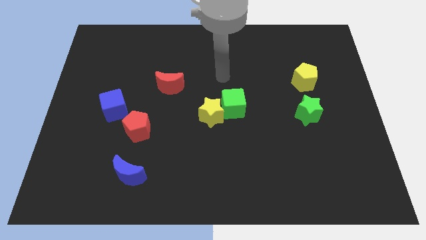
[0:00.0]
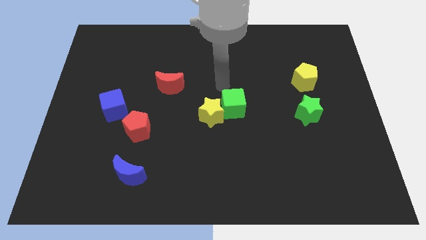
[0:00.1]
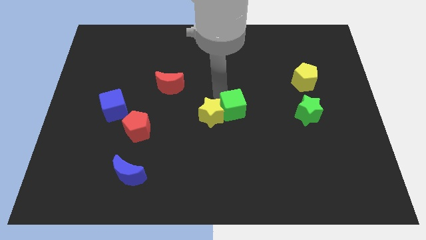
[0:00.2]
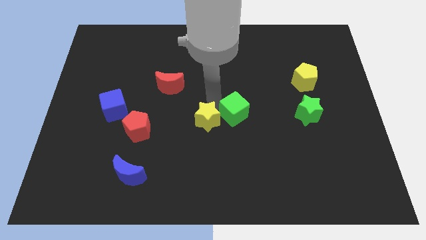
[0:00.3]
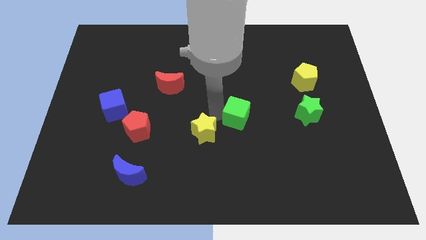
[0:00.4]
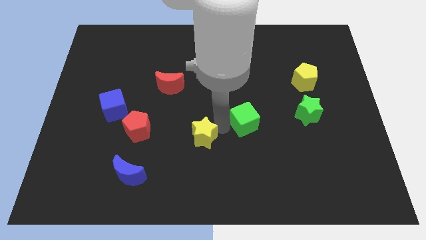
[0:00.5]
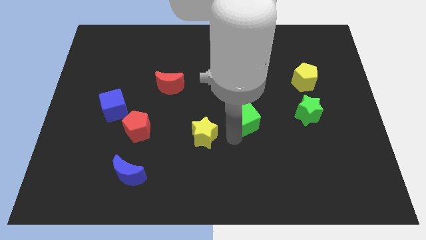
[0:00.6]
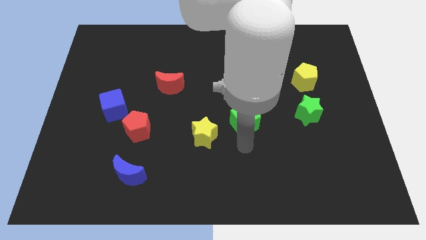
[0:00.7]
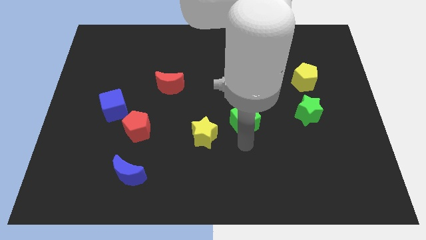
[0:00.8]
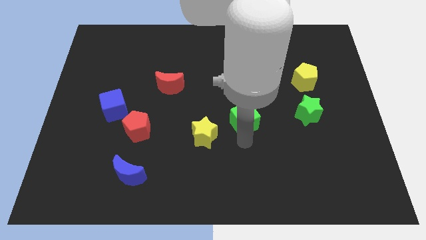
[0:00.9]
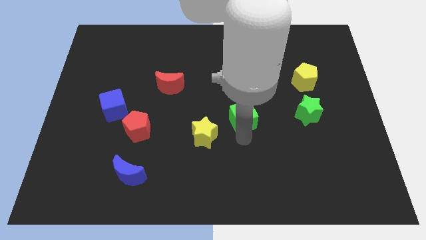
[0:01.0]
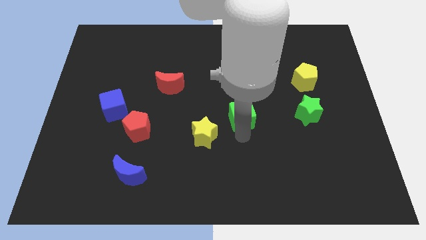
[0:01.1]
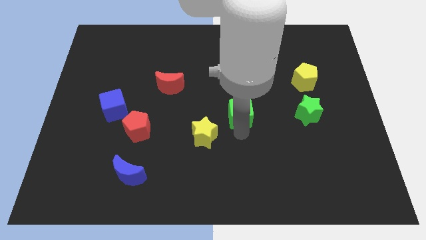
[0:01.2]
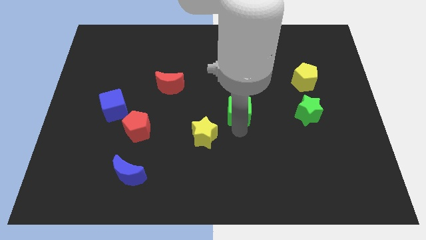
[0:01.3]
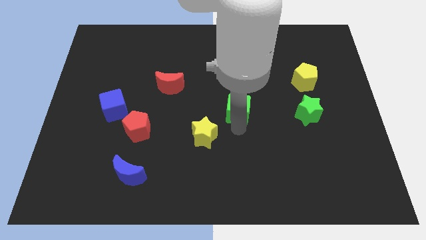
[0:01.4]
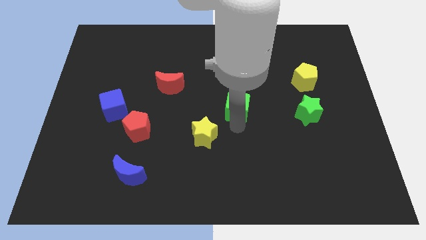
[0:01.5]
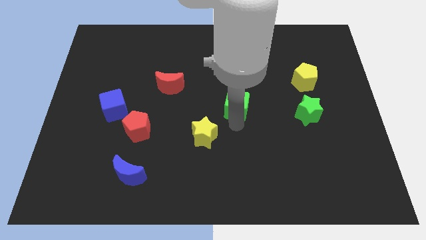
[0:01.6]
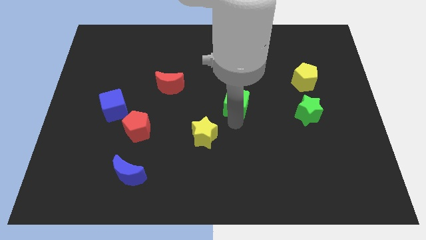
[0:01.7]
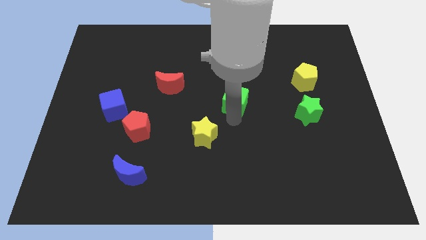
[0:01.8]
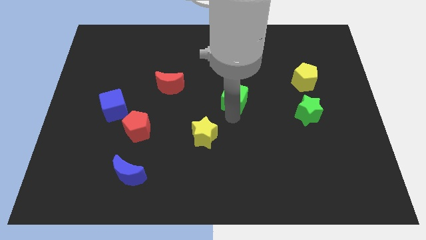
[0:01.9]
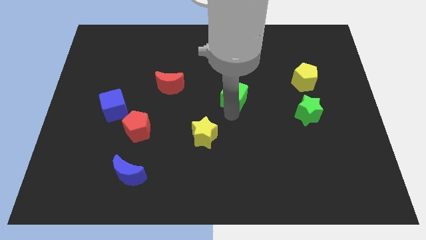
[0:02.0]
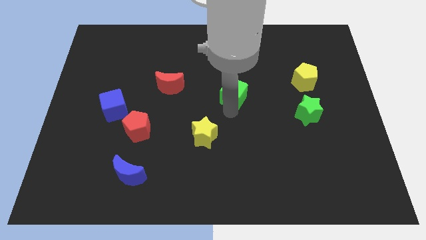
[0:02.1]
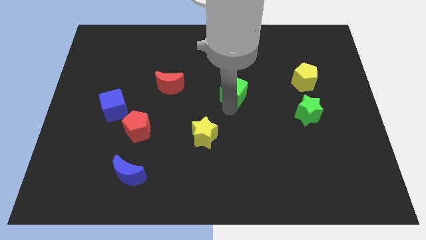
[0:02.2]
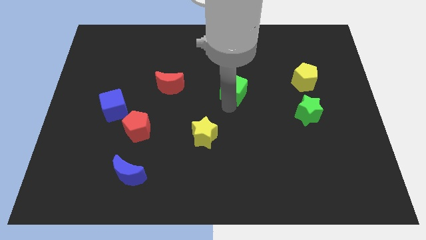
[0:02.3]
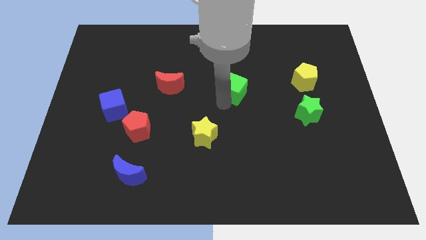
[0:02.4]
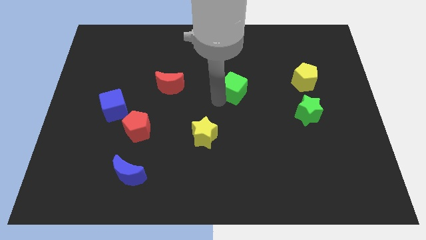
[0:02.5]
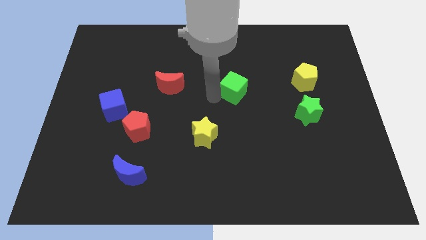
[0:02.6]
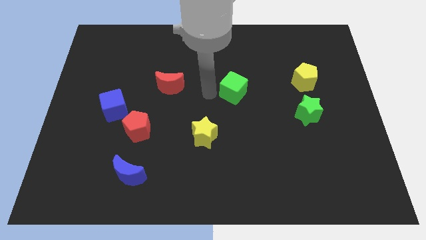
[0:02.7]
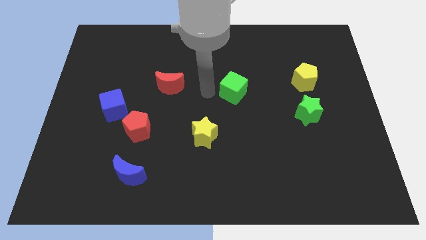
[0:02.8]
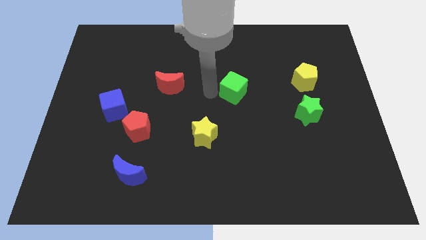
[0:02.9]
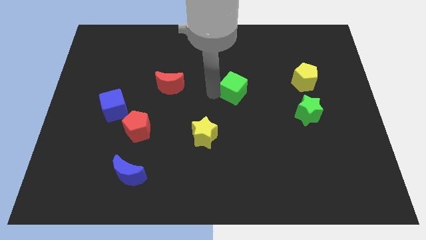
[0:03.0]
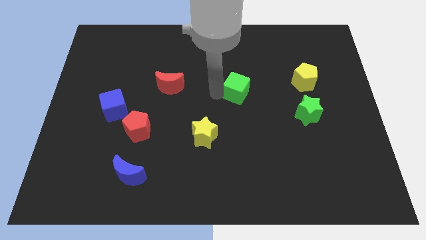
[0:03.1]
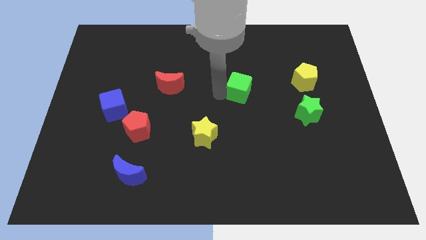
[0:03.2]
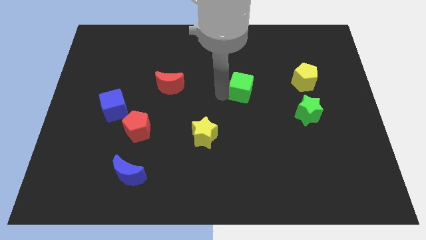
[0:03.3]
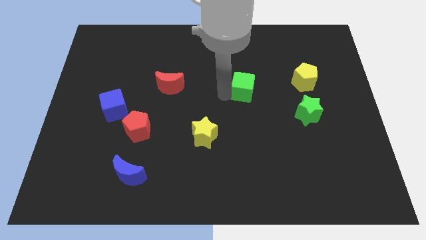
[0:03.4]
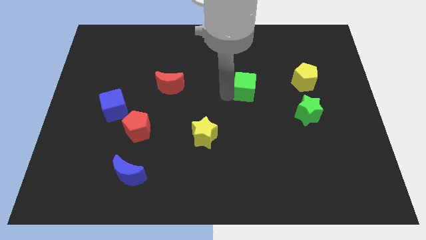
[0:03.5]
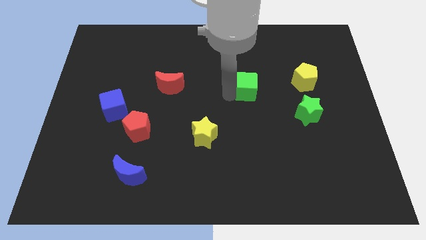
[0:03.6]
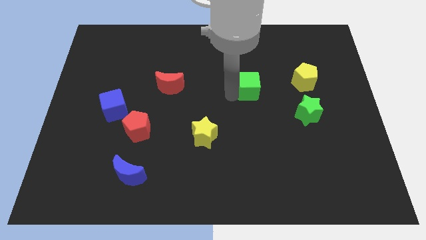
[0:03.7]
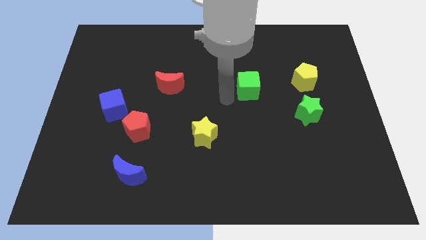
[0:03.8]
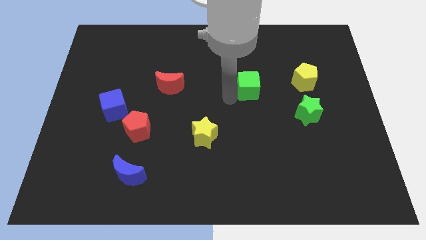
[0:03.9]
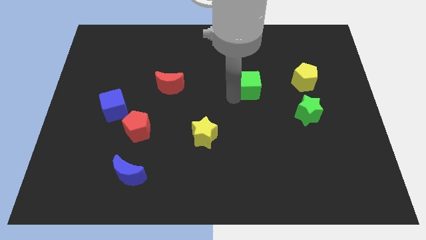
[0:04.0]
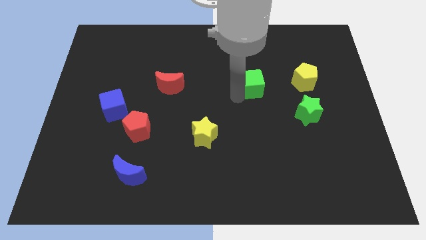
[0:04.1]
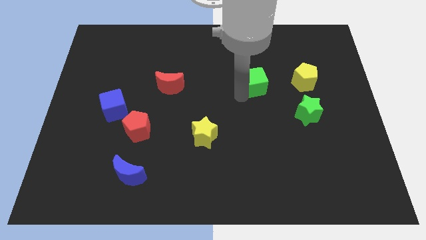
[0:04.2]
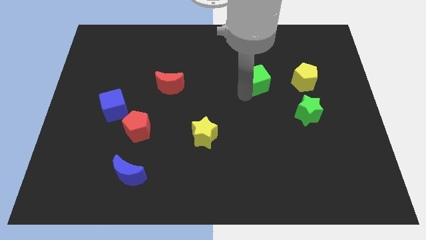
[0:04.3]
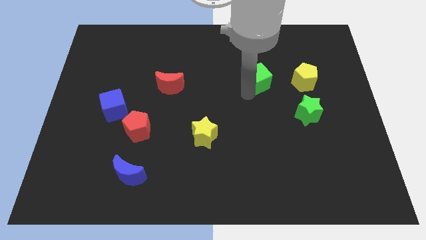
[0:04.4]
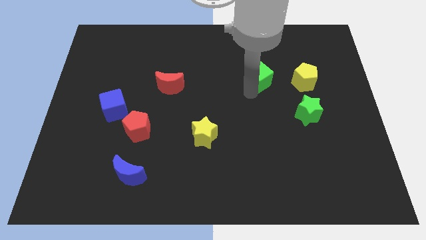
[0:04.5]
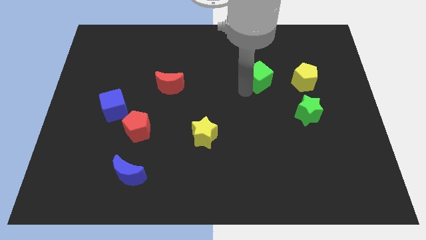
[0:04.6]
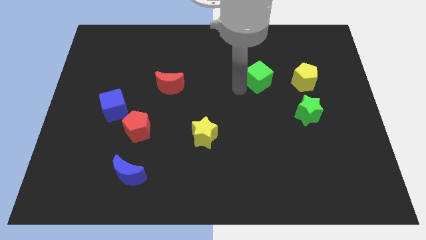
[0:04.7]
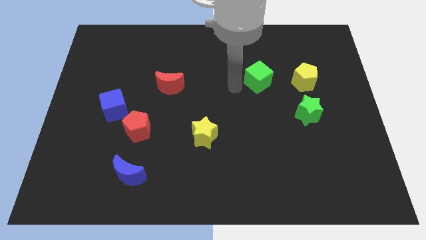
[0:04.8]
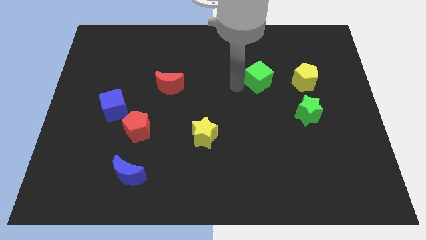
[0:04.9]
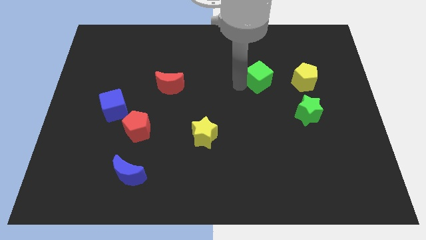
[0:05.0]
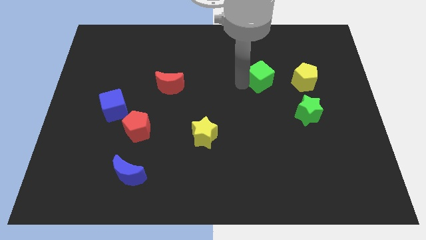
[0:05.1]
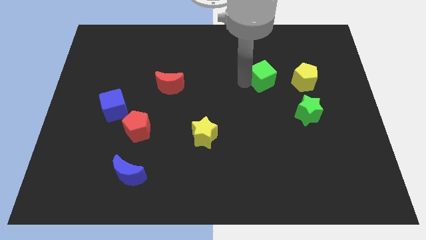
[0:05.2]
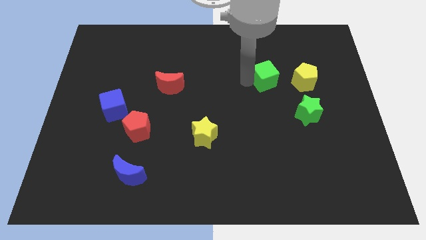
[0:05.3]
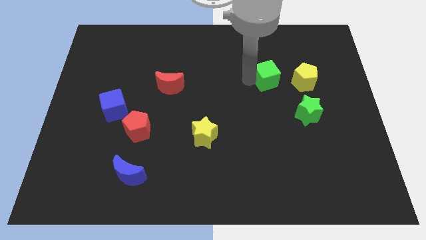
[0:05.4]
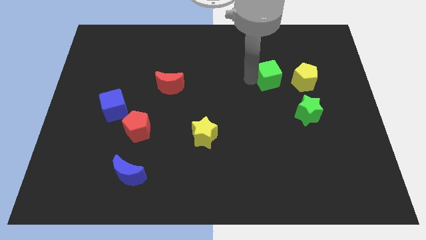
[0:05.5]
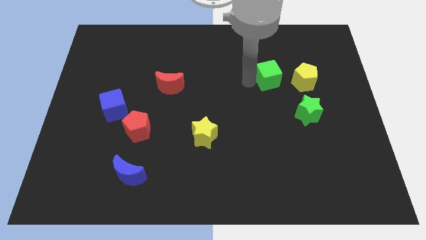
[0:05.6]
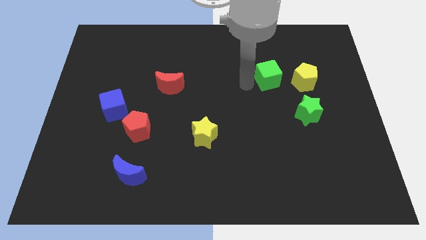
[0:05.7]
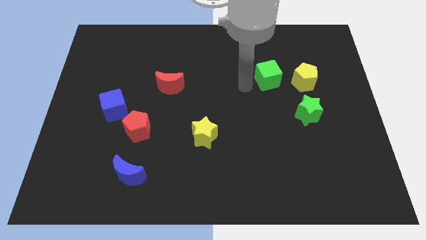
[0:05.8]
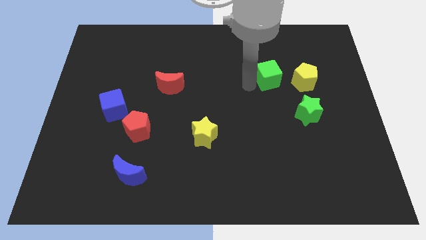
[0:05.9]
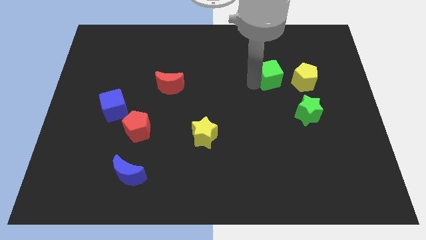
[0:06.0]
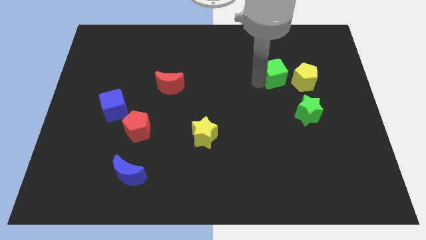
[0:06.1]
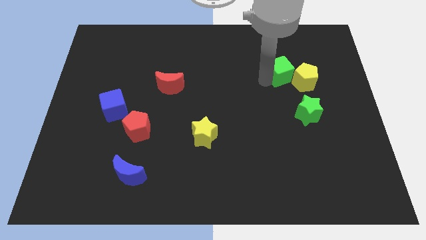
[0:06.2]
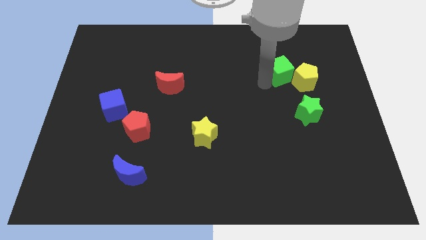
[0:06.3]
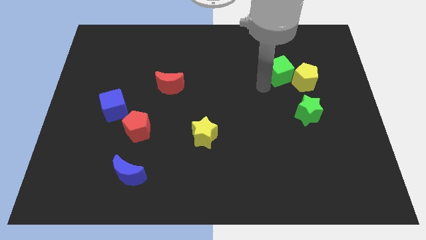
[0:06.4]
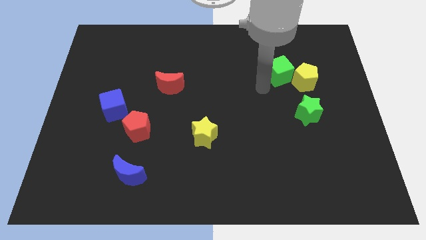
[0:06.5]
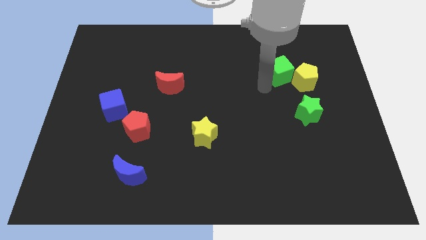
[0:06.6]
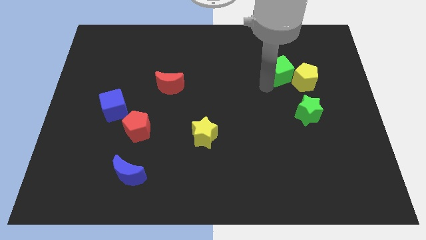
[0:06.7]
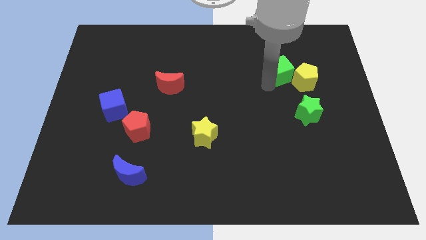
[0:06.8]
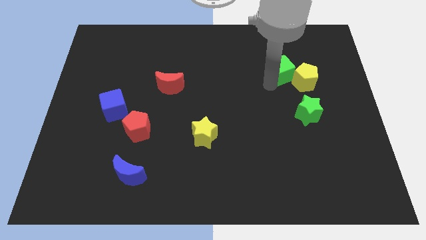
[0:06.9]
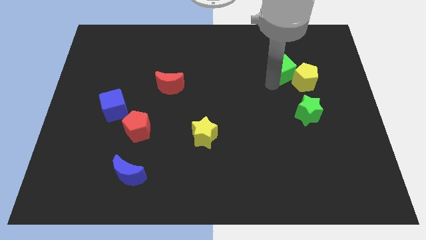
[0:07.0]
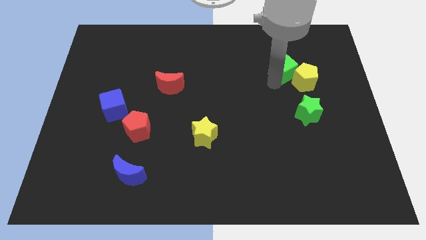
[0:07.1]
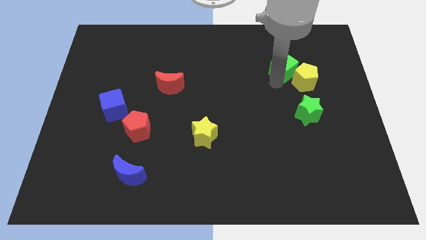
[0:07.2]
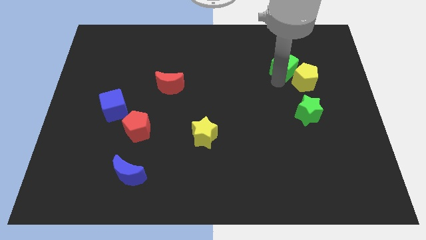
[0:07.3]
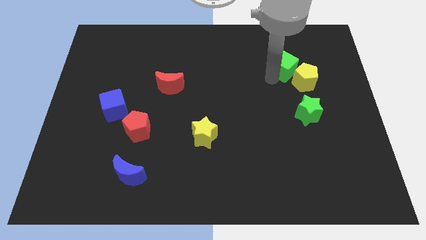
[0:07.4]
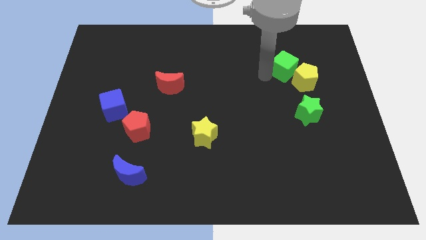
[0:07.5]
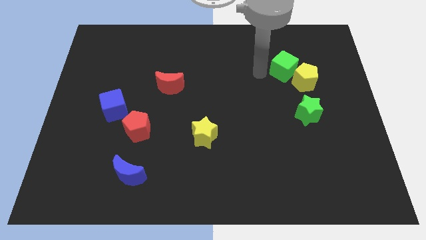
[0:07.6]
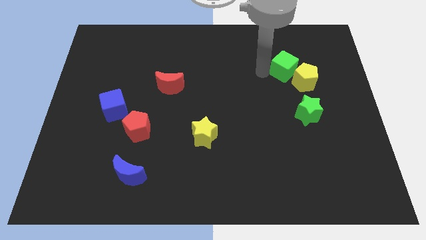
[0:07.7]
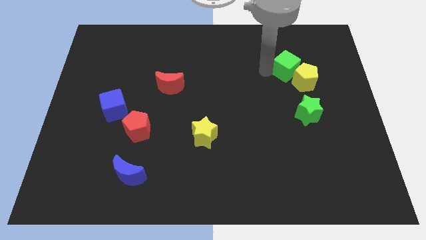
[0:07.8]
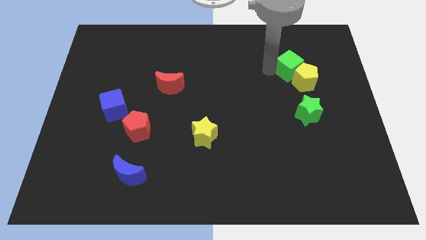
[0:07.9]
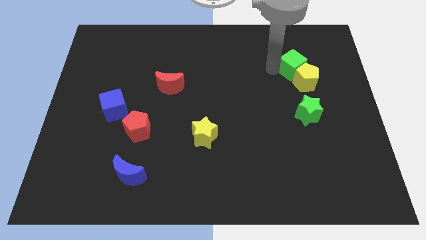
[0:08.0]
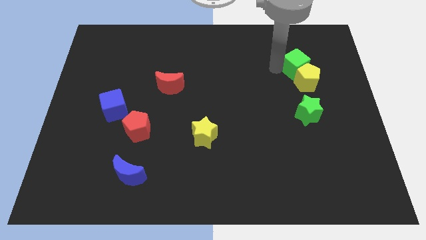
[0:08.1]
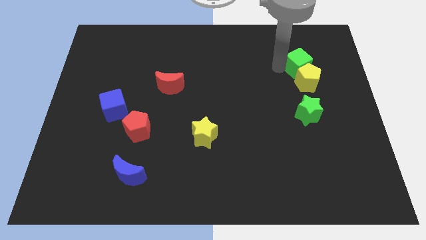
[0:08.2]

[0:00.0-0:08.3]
put the green cube to the top right side of the yellow pentagon
